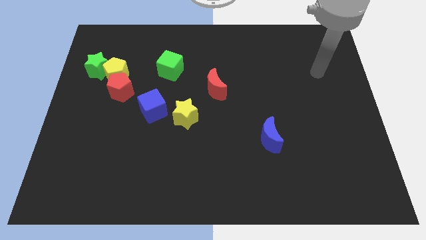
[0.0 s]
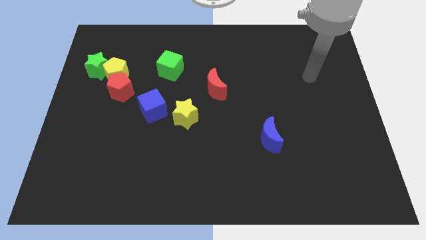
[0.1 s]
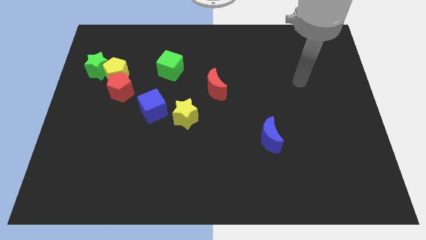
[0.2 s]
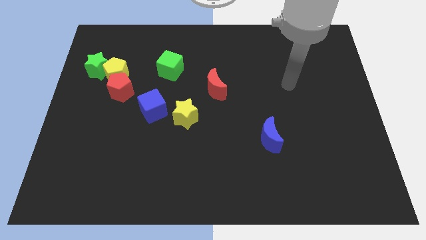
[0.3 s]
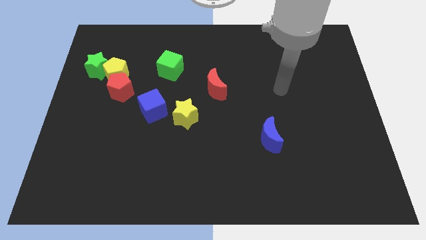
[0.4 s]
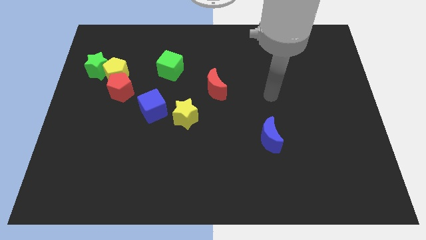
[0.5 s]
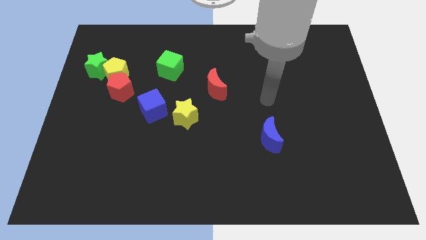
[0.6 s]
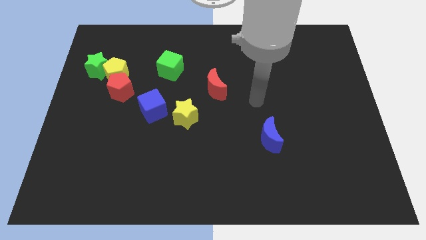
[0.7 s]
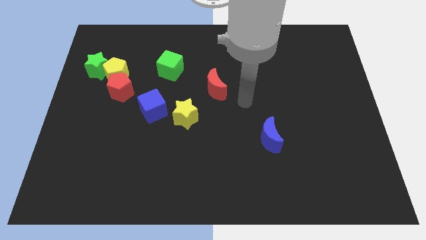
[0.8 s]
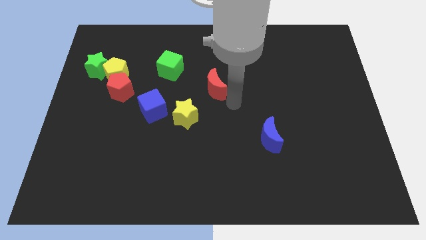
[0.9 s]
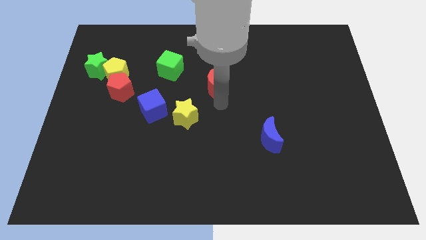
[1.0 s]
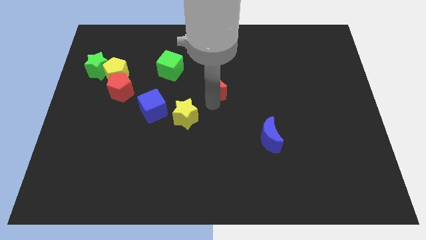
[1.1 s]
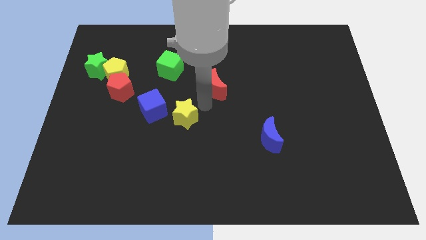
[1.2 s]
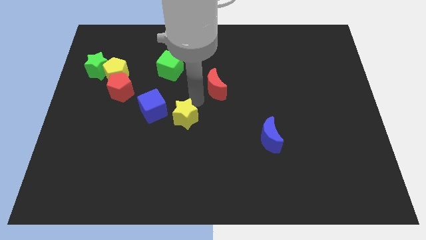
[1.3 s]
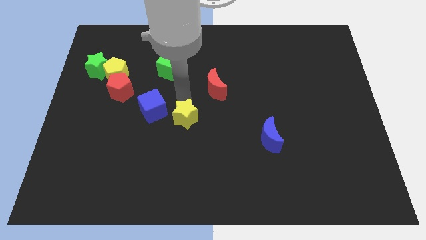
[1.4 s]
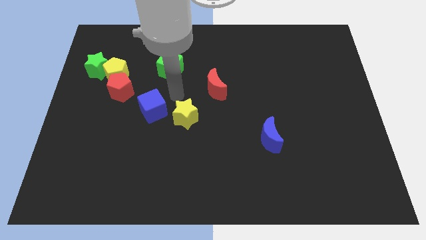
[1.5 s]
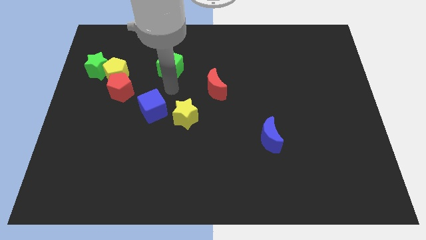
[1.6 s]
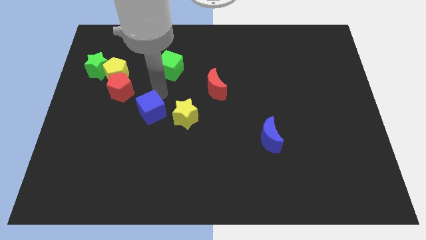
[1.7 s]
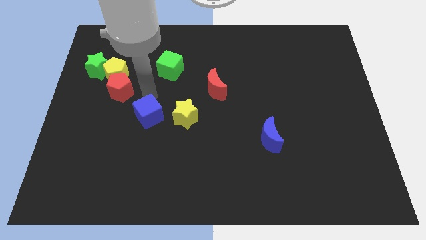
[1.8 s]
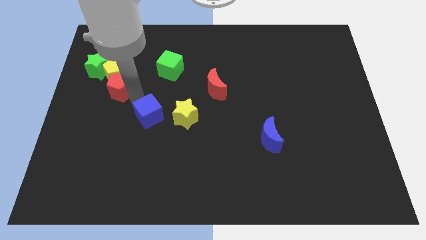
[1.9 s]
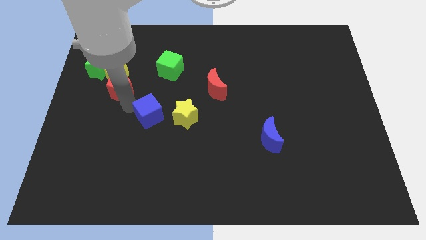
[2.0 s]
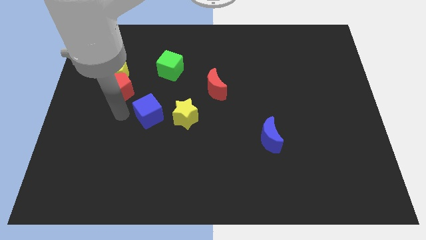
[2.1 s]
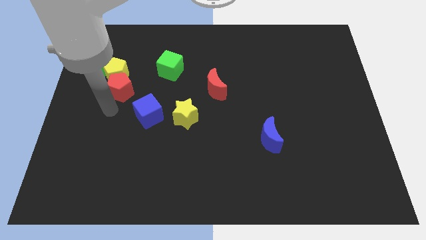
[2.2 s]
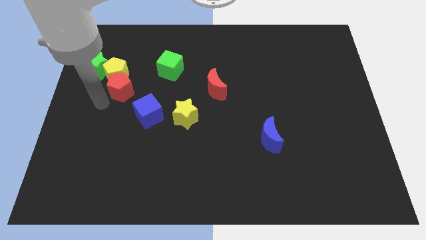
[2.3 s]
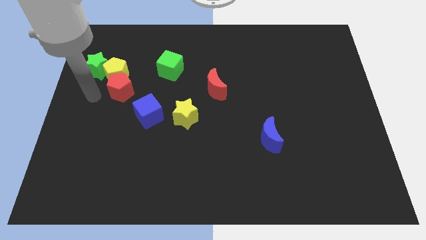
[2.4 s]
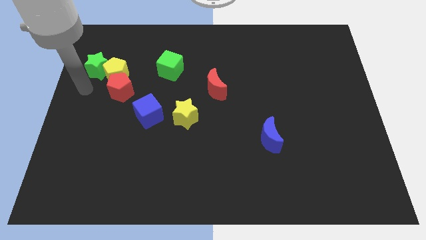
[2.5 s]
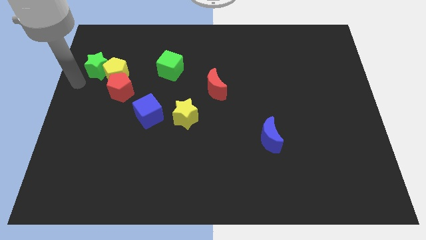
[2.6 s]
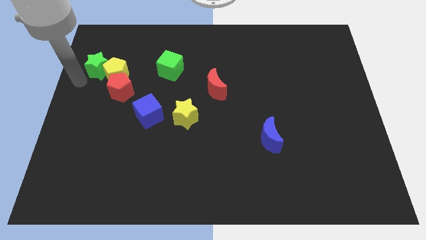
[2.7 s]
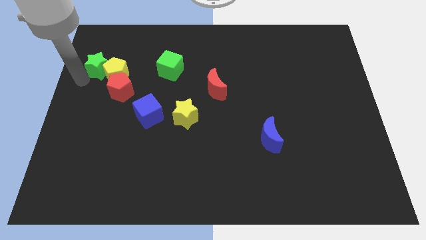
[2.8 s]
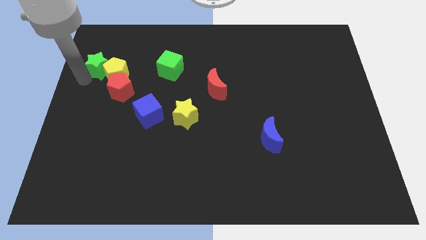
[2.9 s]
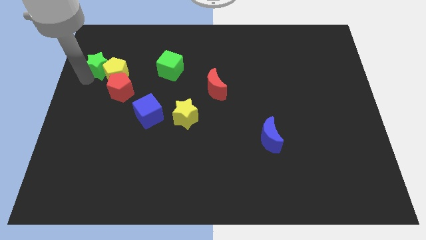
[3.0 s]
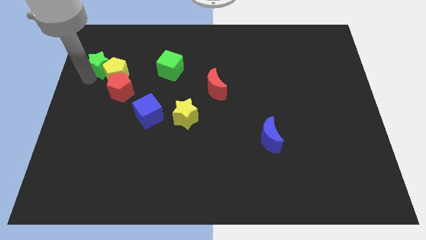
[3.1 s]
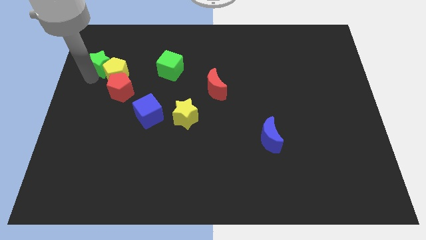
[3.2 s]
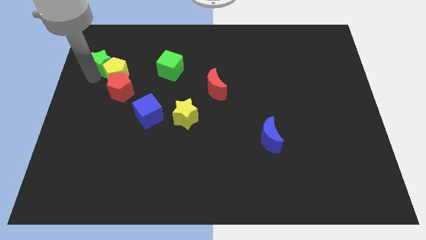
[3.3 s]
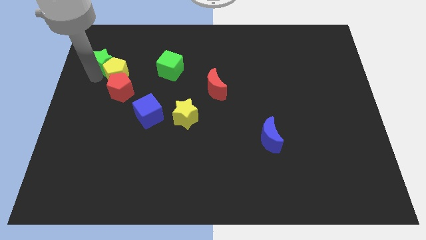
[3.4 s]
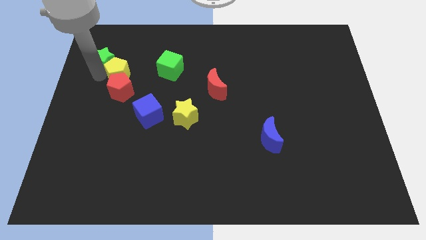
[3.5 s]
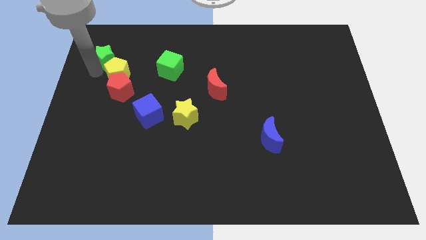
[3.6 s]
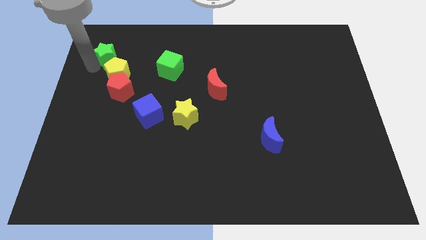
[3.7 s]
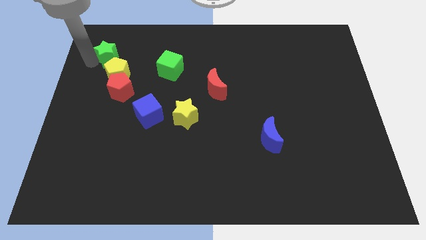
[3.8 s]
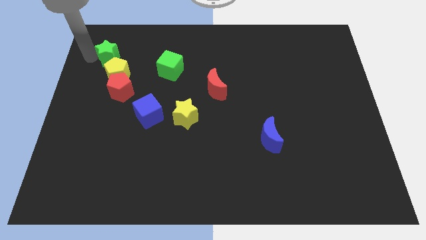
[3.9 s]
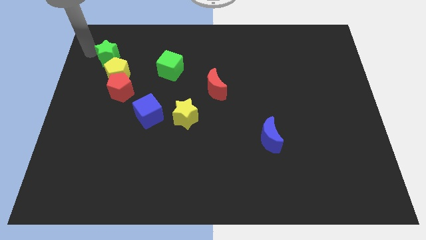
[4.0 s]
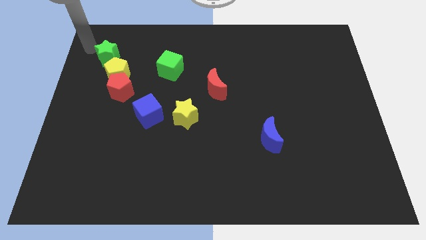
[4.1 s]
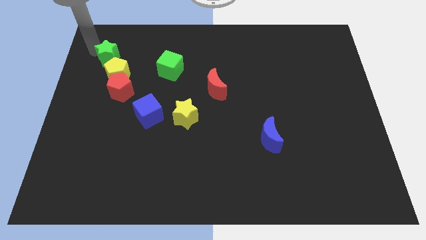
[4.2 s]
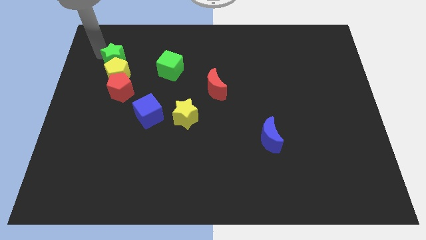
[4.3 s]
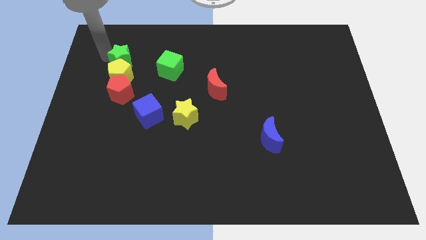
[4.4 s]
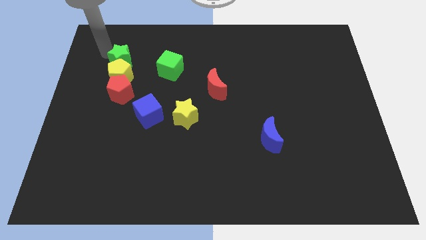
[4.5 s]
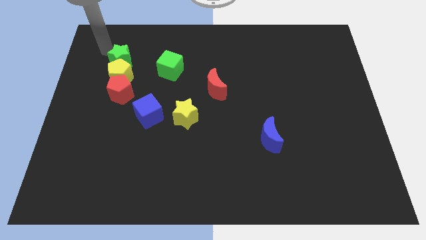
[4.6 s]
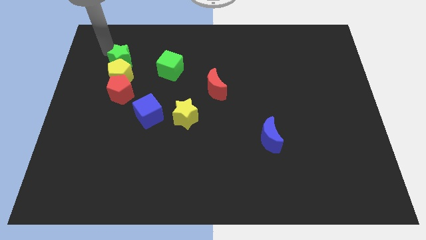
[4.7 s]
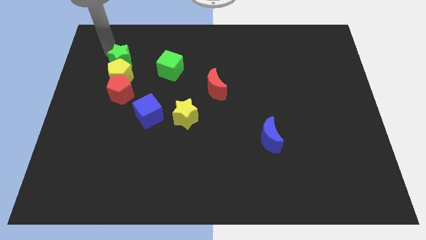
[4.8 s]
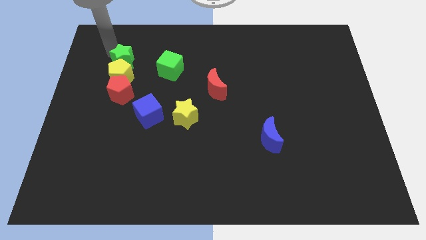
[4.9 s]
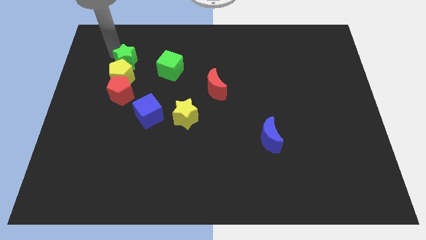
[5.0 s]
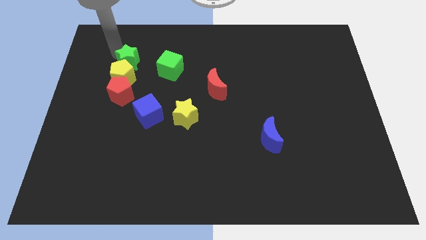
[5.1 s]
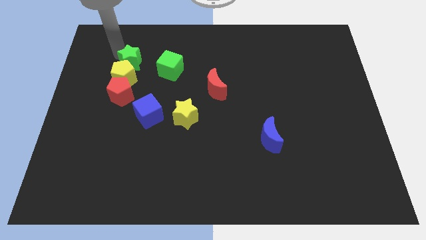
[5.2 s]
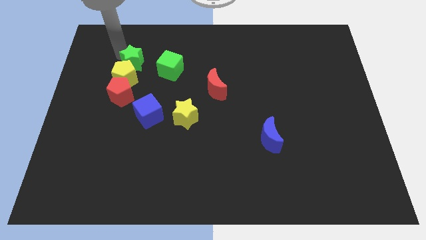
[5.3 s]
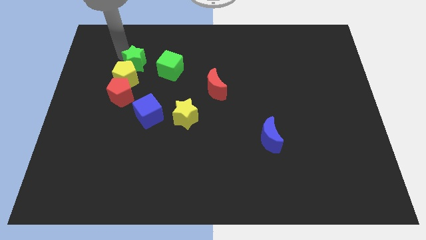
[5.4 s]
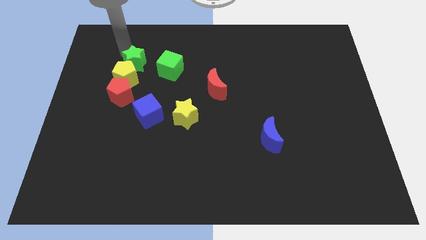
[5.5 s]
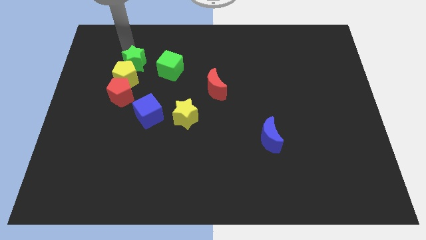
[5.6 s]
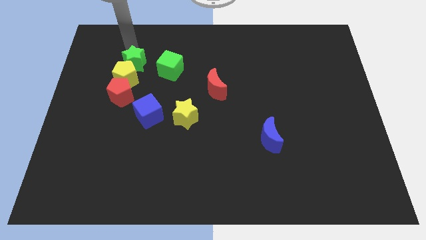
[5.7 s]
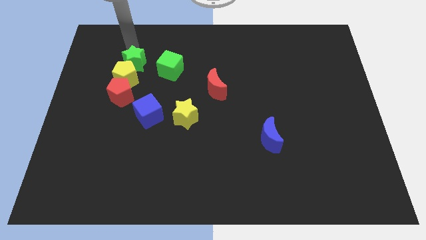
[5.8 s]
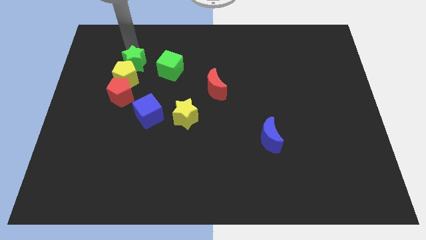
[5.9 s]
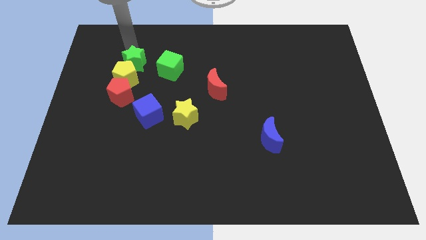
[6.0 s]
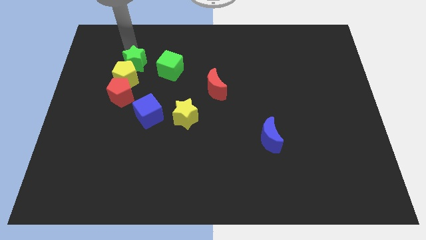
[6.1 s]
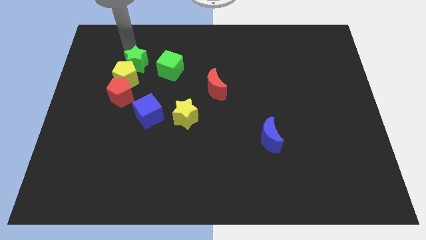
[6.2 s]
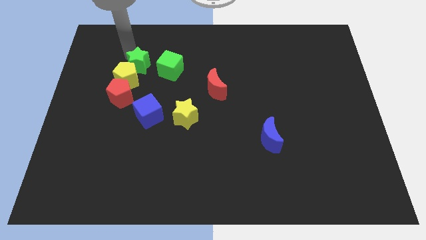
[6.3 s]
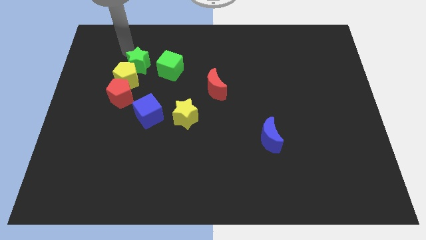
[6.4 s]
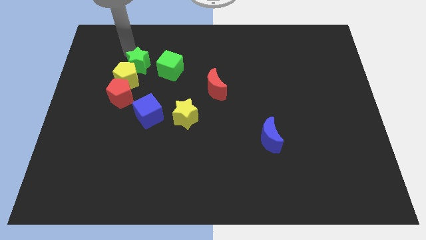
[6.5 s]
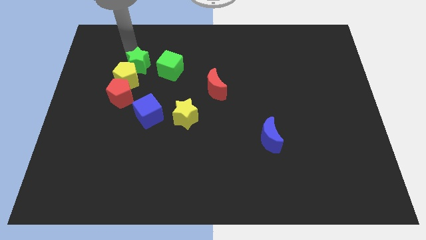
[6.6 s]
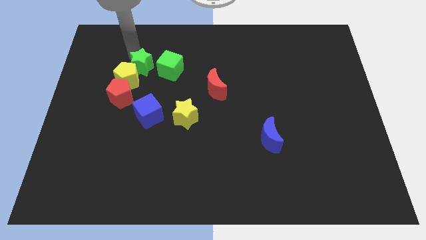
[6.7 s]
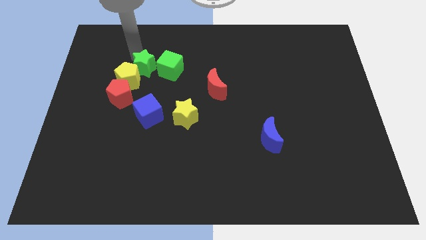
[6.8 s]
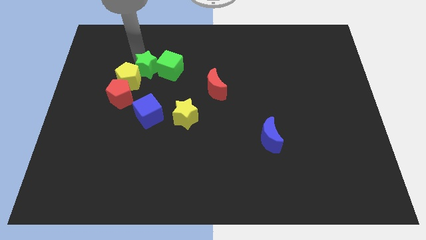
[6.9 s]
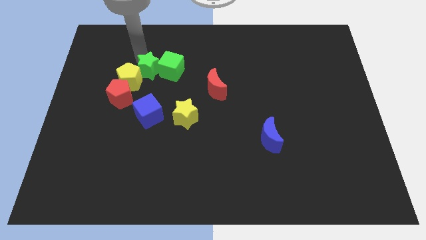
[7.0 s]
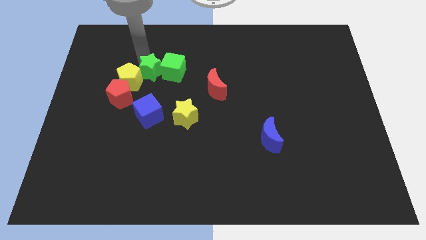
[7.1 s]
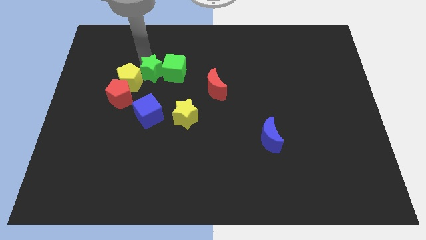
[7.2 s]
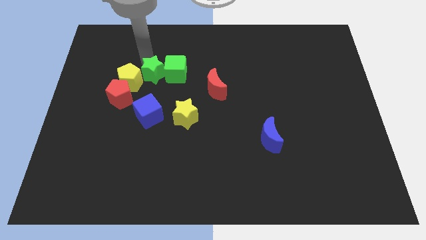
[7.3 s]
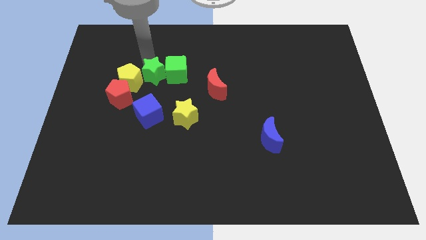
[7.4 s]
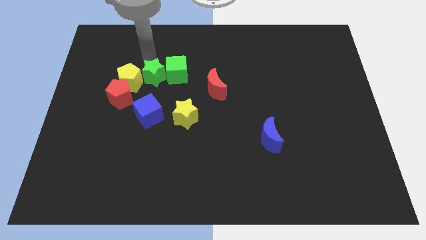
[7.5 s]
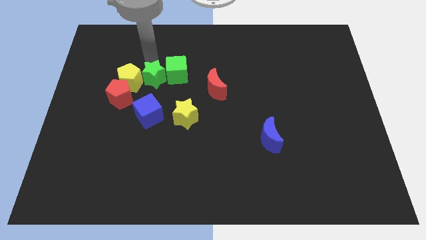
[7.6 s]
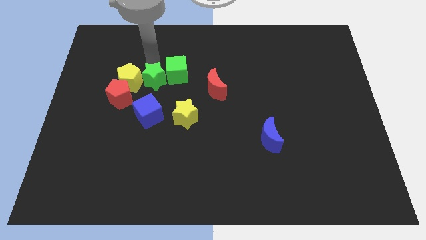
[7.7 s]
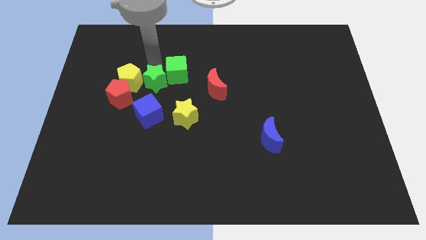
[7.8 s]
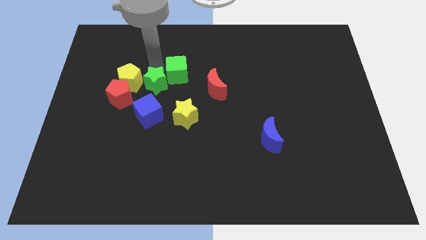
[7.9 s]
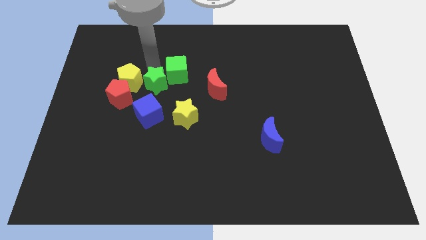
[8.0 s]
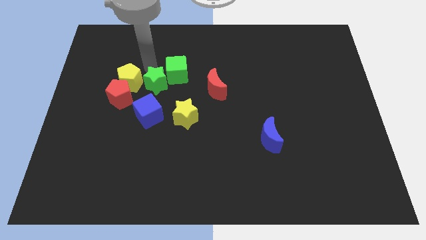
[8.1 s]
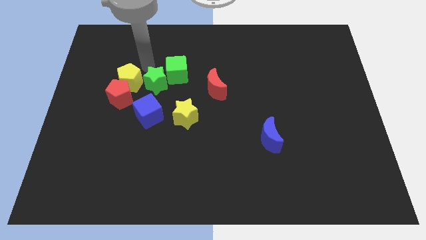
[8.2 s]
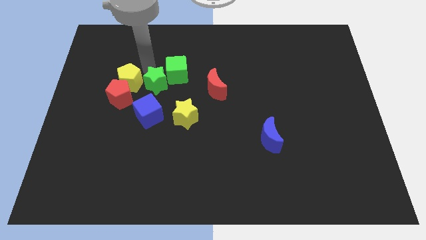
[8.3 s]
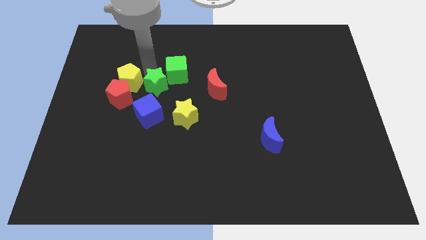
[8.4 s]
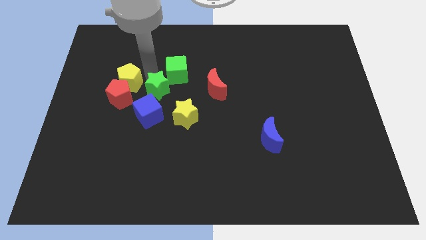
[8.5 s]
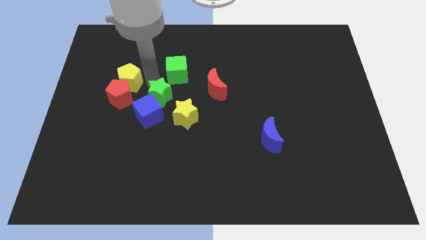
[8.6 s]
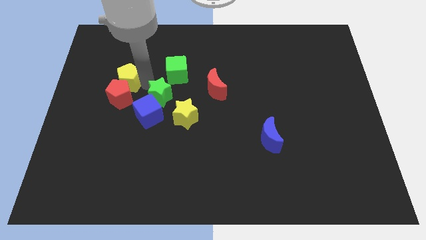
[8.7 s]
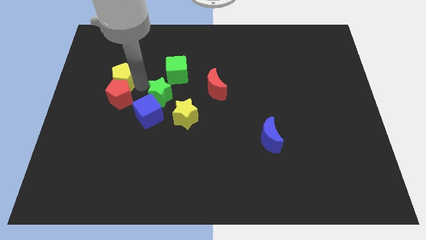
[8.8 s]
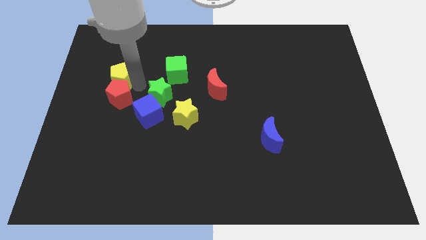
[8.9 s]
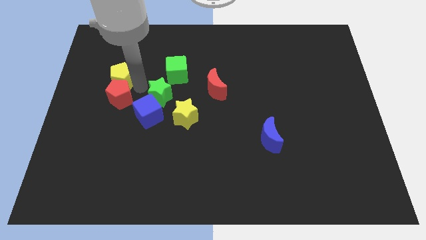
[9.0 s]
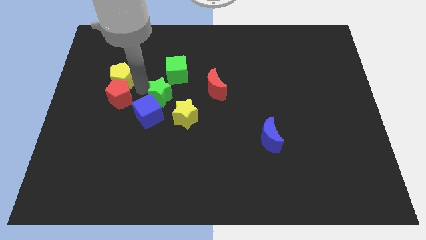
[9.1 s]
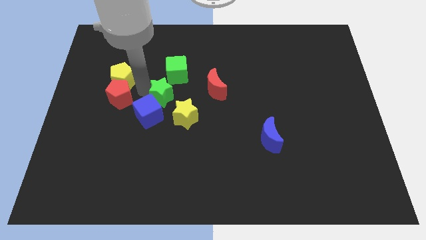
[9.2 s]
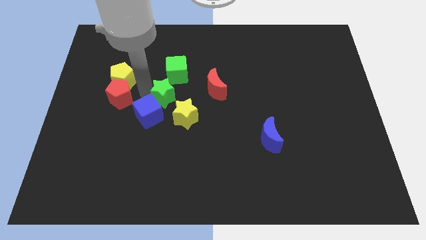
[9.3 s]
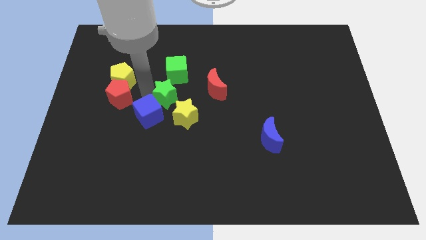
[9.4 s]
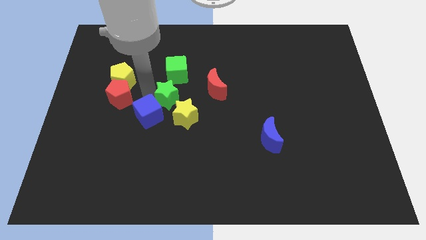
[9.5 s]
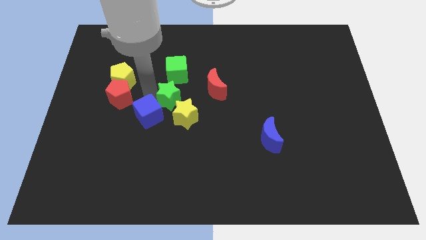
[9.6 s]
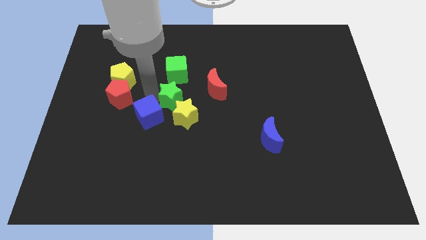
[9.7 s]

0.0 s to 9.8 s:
move the green star close to the yellow star
